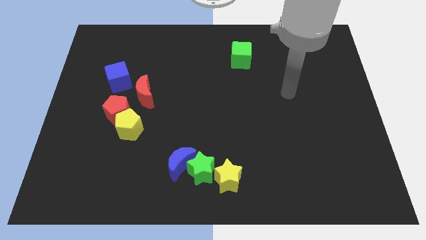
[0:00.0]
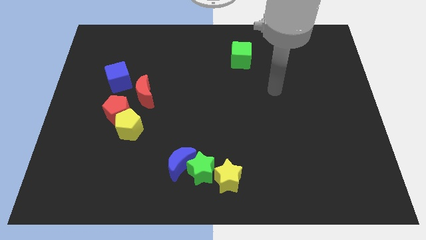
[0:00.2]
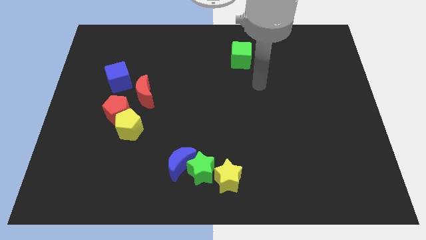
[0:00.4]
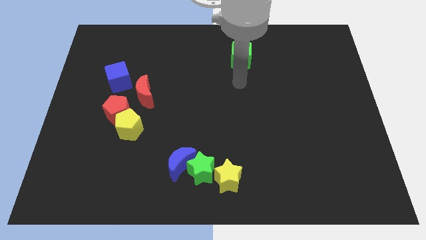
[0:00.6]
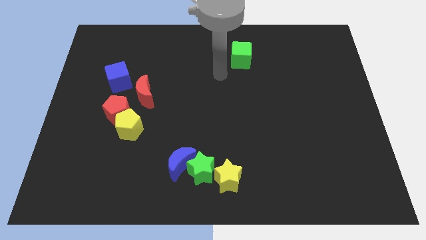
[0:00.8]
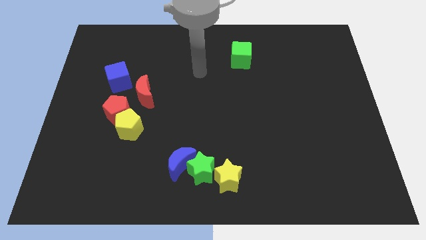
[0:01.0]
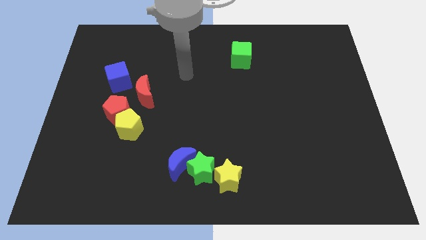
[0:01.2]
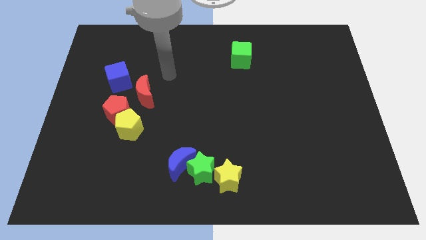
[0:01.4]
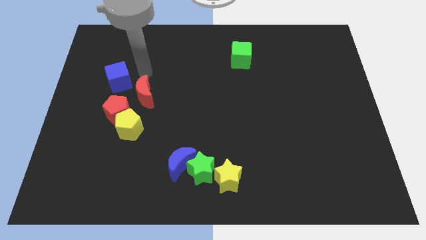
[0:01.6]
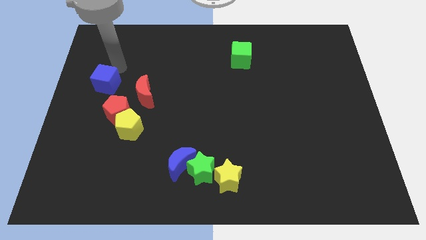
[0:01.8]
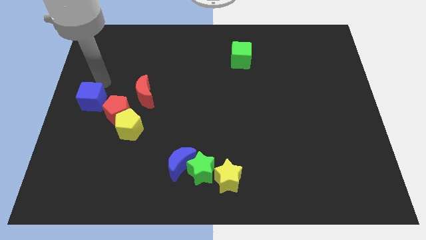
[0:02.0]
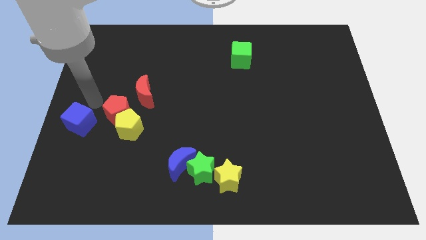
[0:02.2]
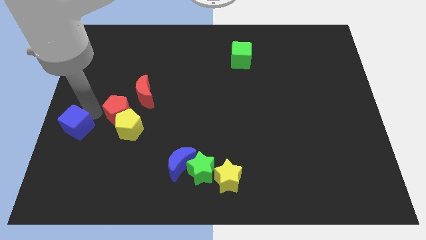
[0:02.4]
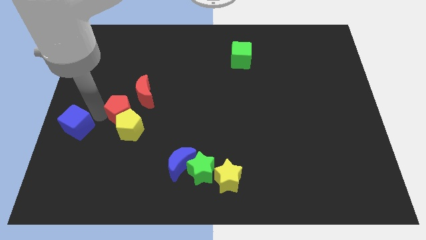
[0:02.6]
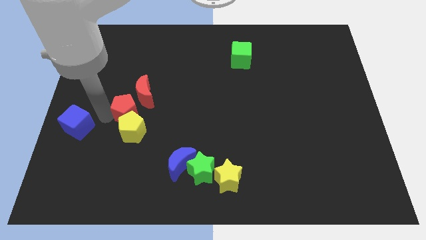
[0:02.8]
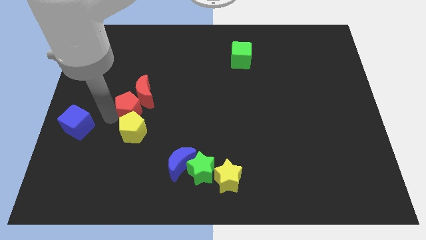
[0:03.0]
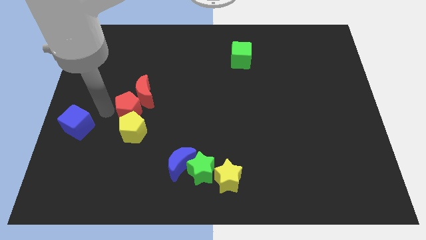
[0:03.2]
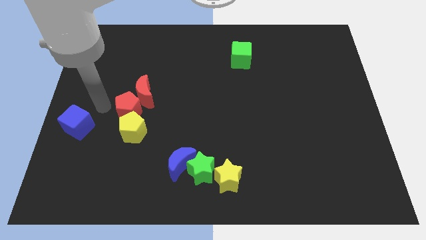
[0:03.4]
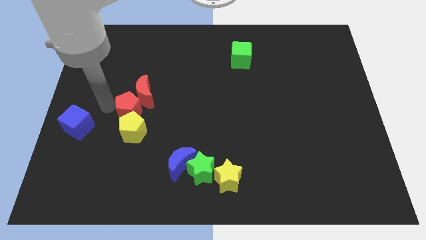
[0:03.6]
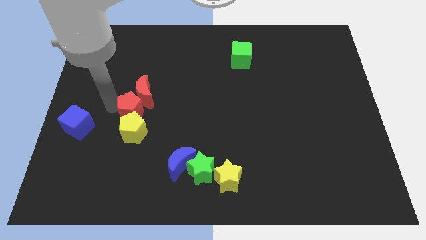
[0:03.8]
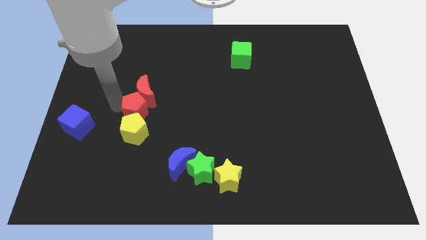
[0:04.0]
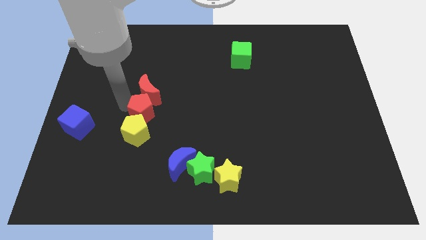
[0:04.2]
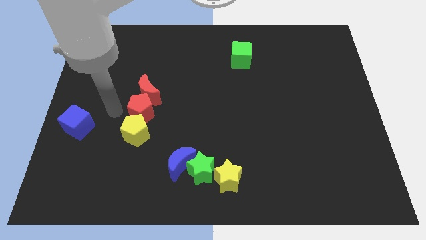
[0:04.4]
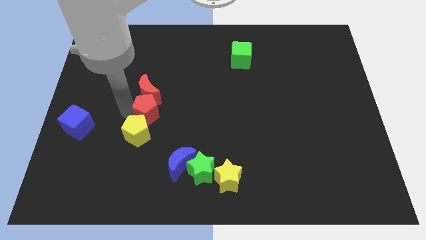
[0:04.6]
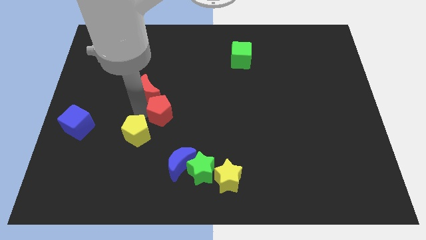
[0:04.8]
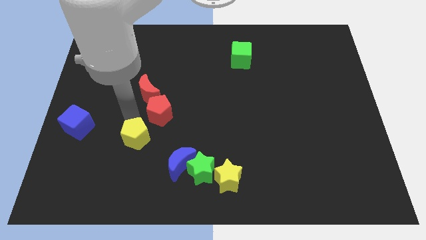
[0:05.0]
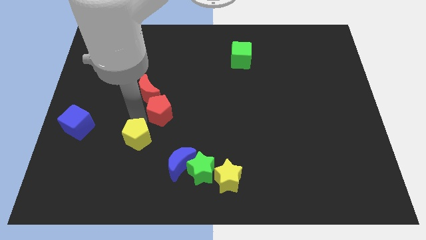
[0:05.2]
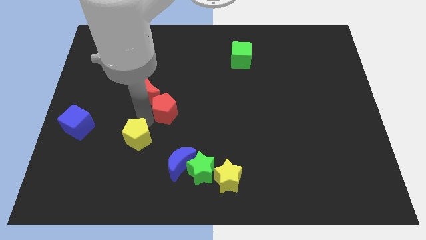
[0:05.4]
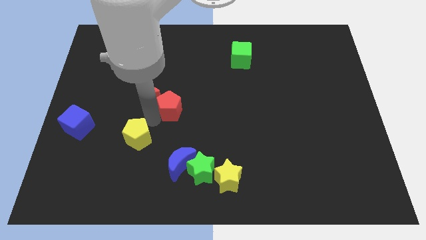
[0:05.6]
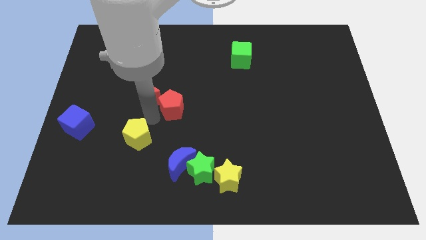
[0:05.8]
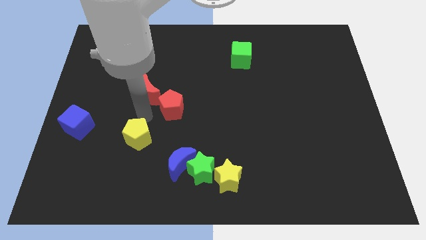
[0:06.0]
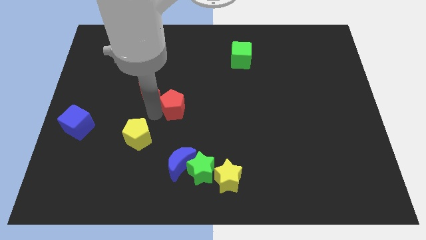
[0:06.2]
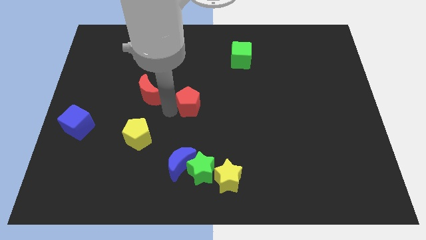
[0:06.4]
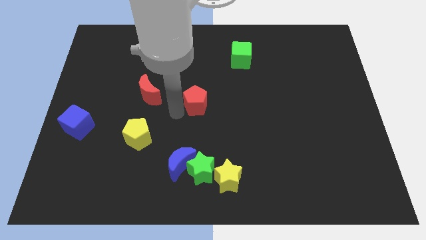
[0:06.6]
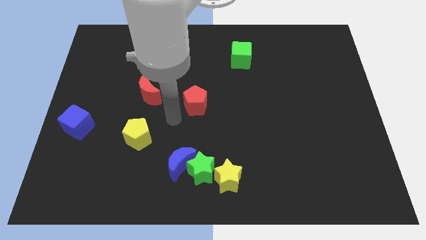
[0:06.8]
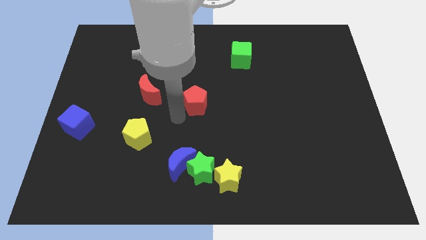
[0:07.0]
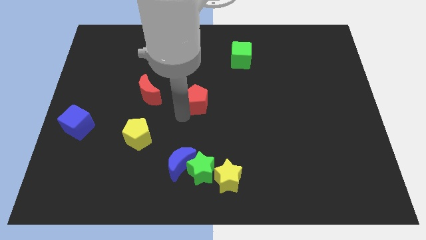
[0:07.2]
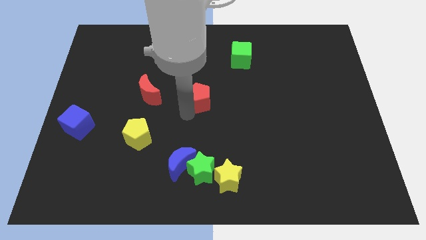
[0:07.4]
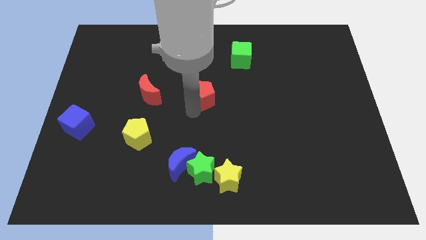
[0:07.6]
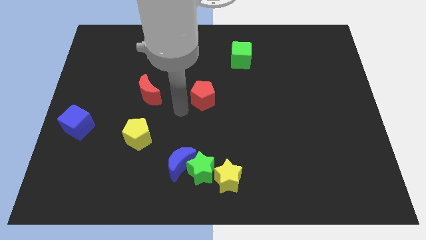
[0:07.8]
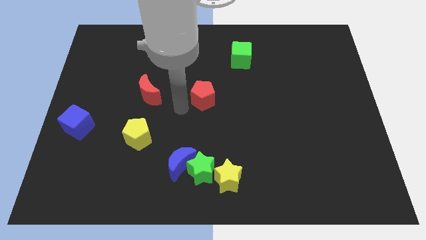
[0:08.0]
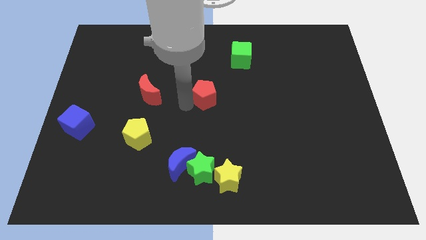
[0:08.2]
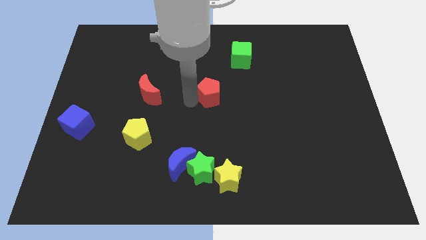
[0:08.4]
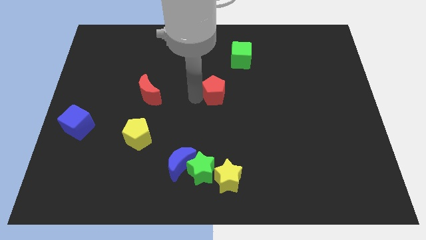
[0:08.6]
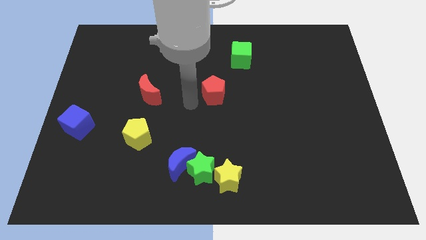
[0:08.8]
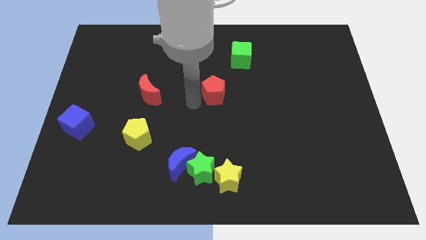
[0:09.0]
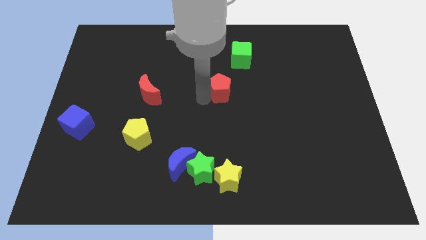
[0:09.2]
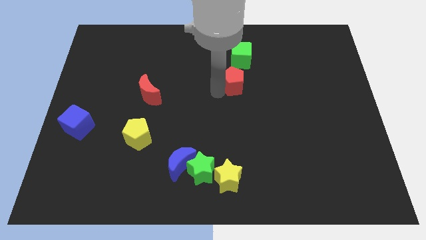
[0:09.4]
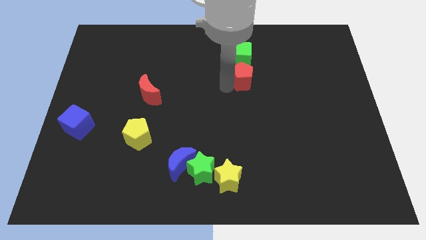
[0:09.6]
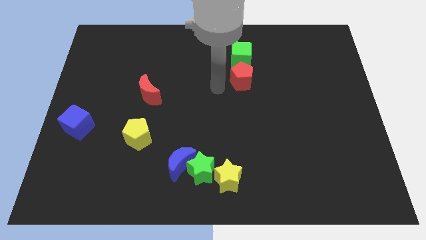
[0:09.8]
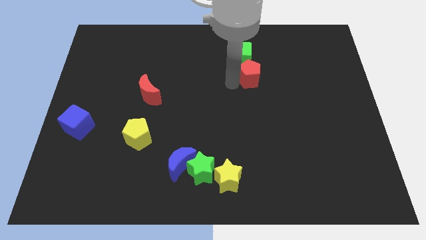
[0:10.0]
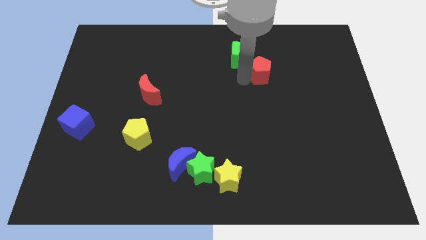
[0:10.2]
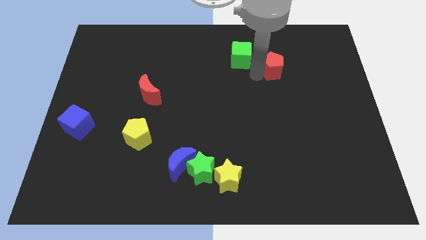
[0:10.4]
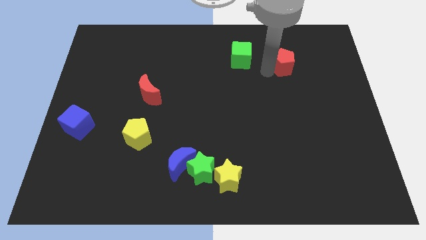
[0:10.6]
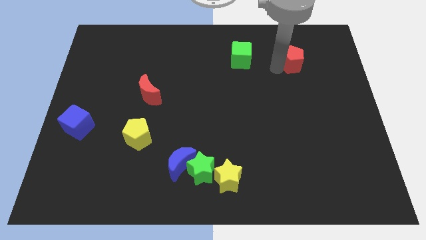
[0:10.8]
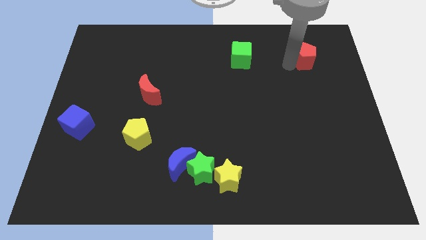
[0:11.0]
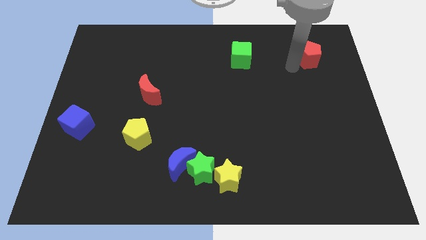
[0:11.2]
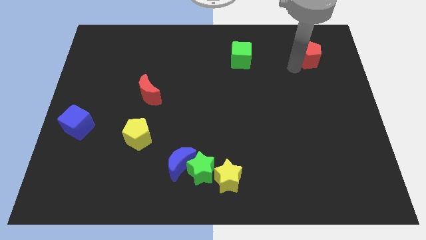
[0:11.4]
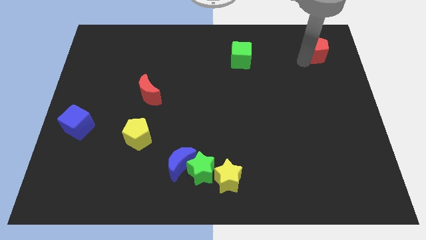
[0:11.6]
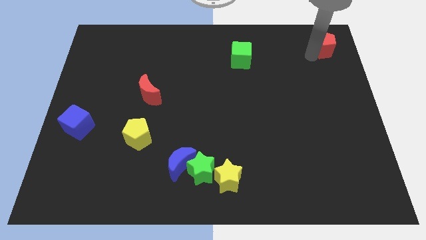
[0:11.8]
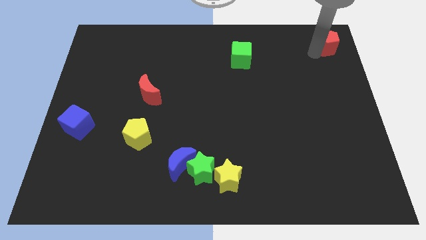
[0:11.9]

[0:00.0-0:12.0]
put the red pentagon to the top right
